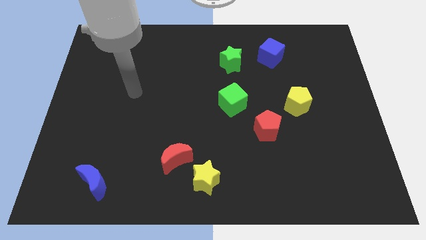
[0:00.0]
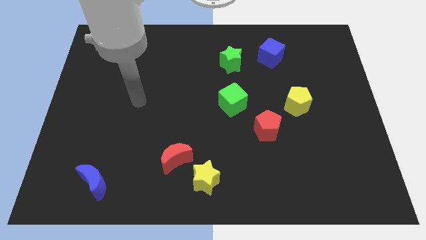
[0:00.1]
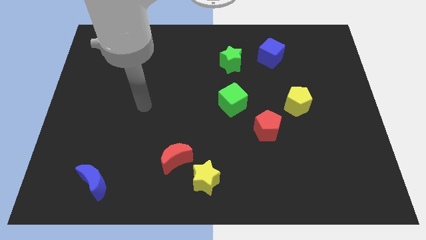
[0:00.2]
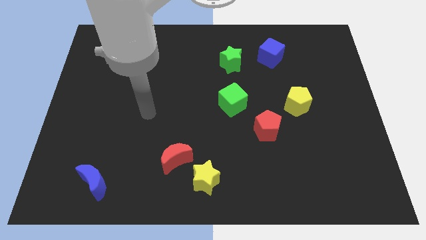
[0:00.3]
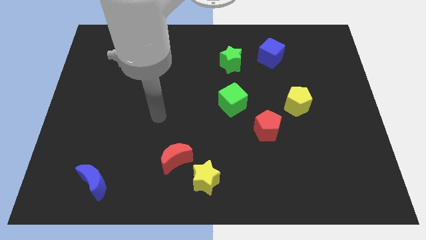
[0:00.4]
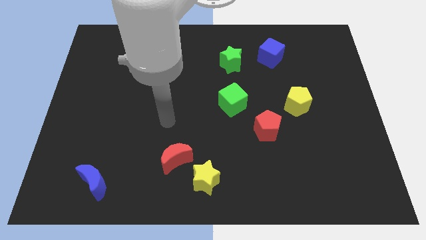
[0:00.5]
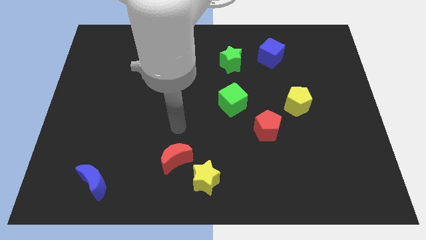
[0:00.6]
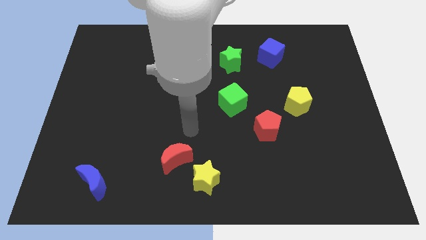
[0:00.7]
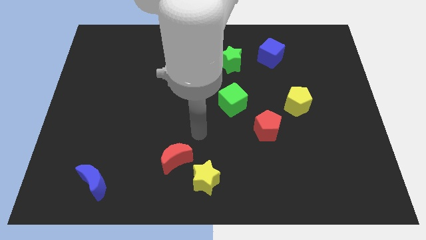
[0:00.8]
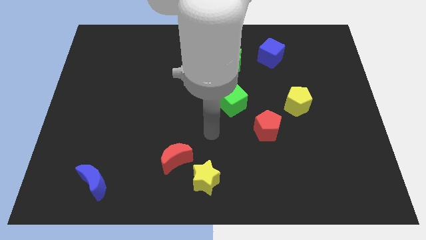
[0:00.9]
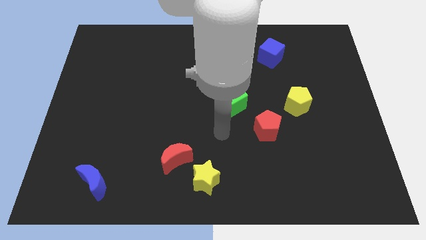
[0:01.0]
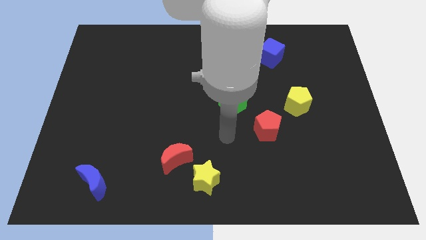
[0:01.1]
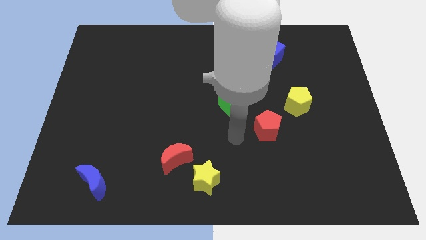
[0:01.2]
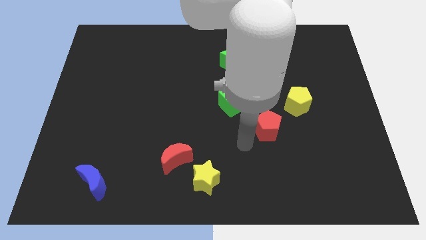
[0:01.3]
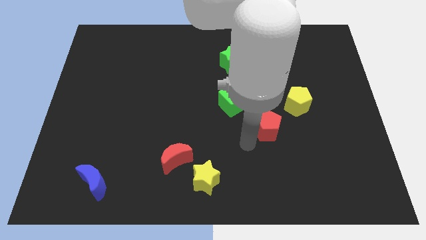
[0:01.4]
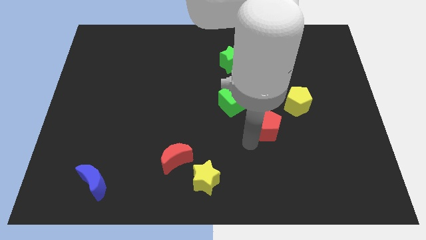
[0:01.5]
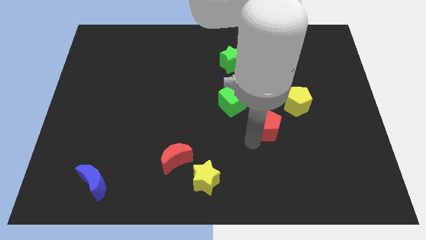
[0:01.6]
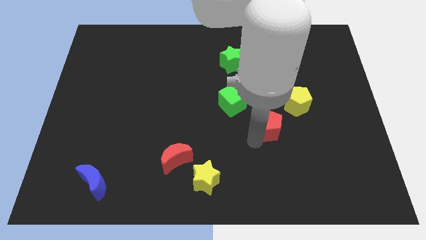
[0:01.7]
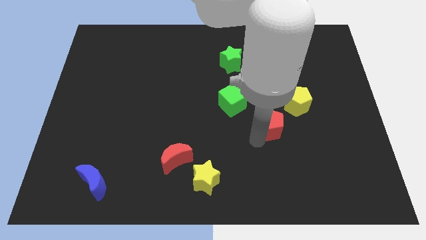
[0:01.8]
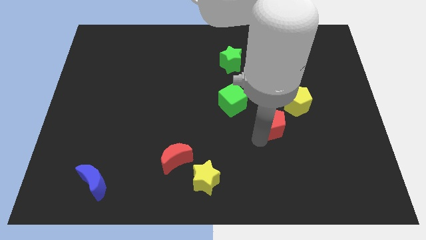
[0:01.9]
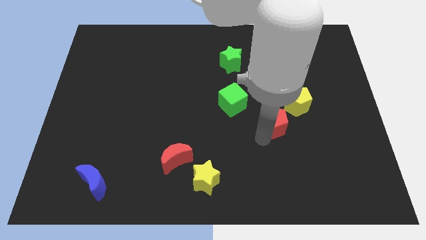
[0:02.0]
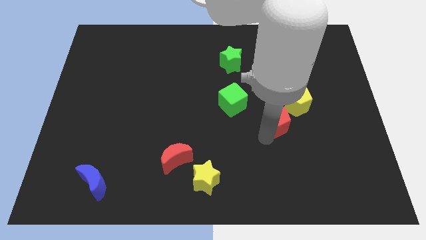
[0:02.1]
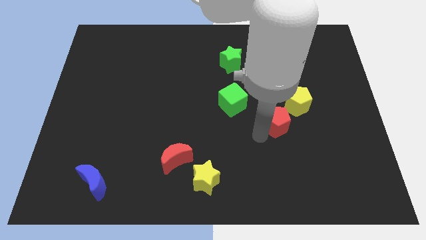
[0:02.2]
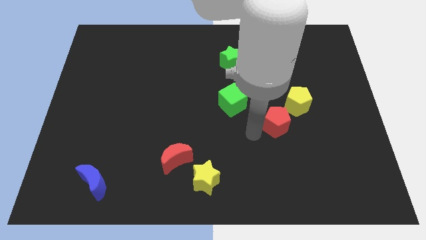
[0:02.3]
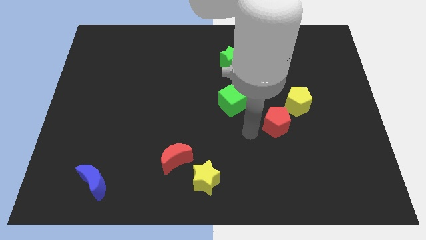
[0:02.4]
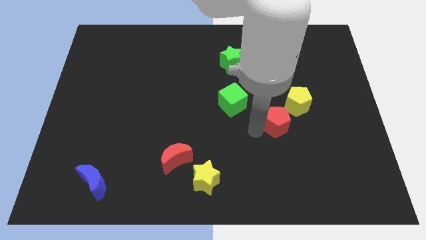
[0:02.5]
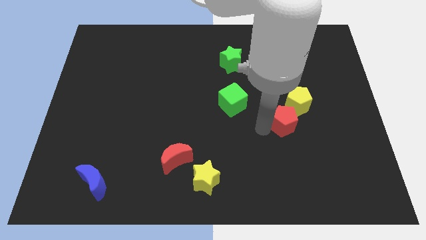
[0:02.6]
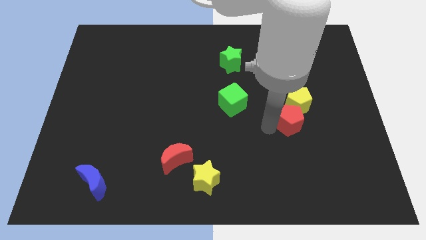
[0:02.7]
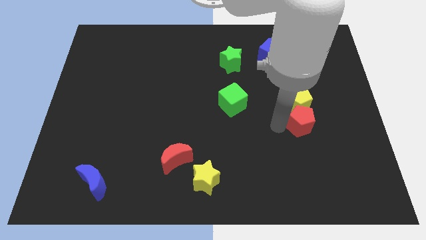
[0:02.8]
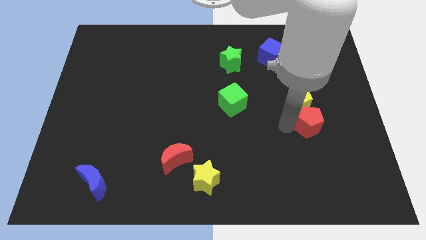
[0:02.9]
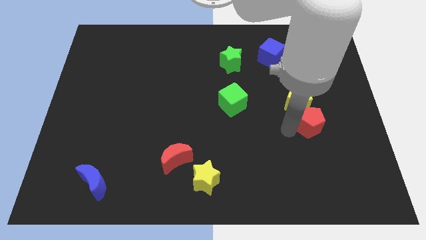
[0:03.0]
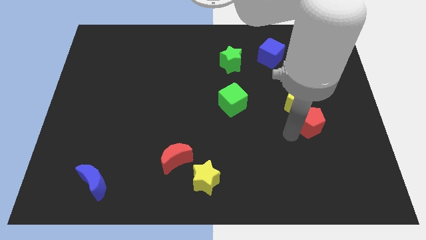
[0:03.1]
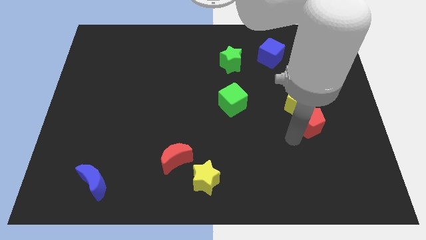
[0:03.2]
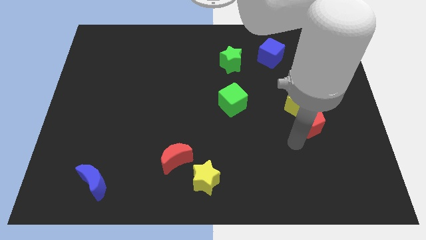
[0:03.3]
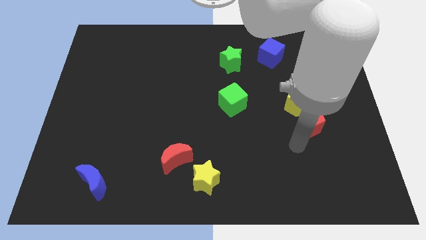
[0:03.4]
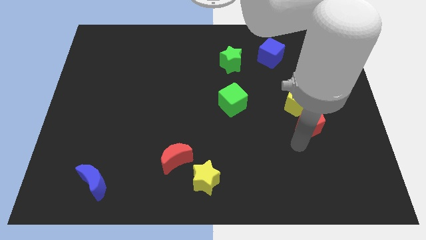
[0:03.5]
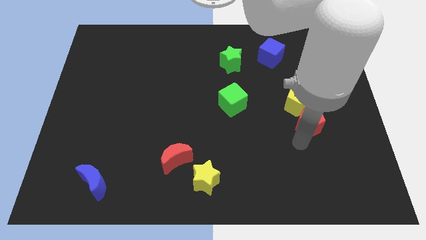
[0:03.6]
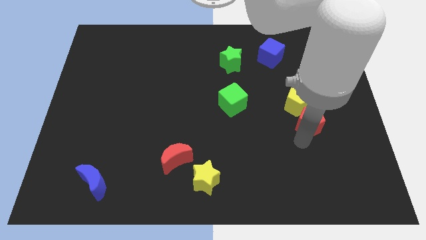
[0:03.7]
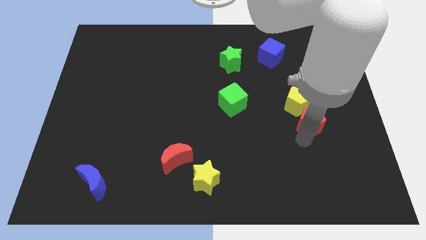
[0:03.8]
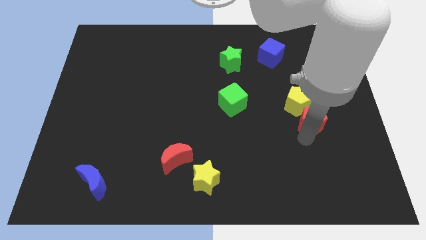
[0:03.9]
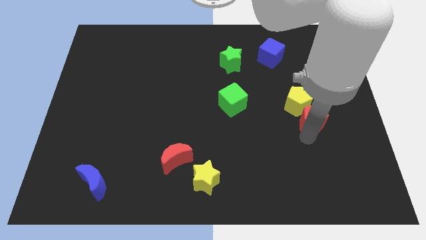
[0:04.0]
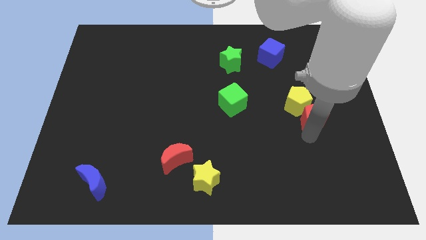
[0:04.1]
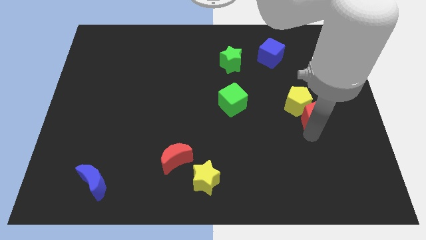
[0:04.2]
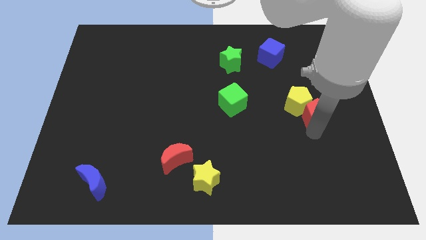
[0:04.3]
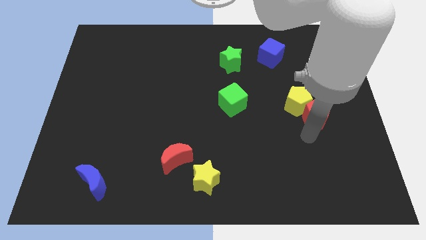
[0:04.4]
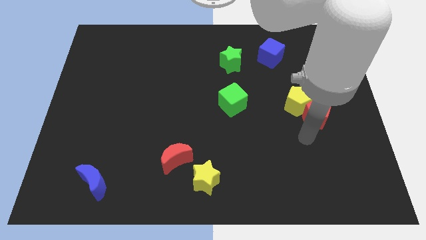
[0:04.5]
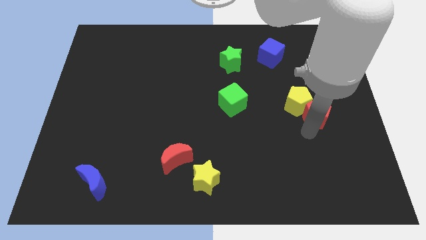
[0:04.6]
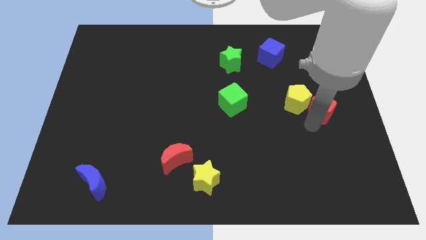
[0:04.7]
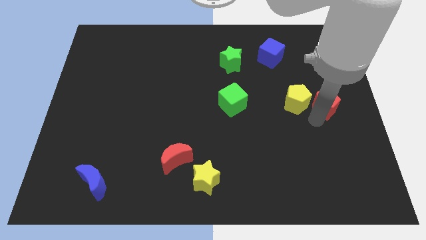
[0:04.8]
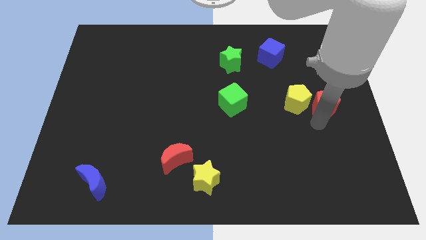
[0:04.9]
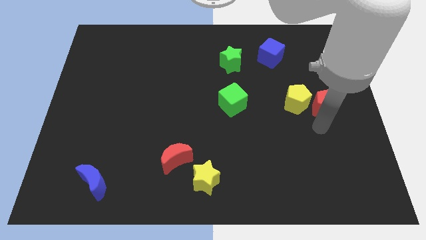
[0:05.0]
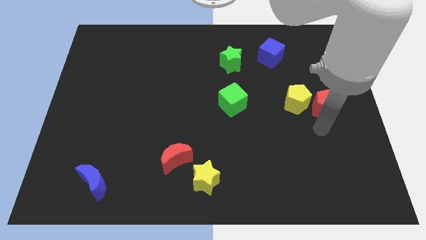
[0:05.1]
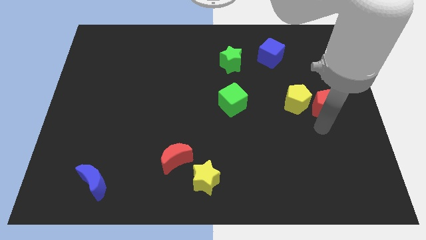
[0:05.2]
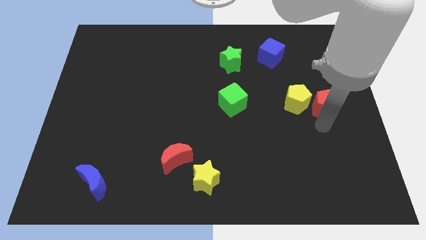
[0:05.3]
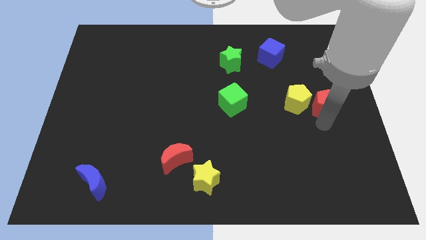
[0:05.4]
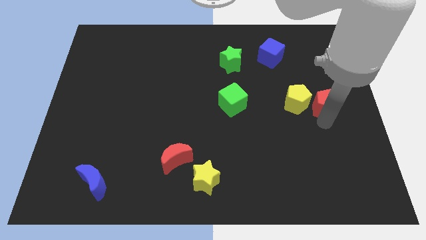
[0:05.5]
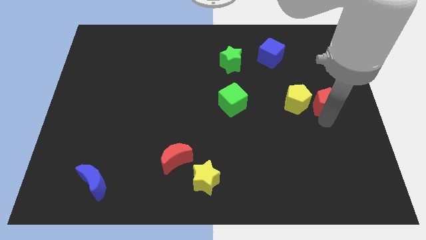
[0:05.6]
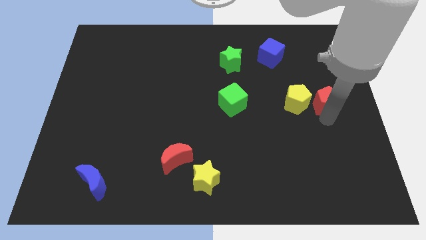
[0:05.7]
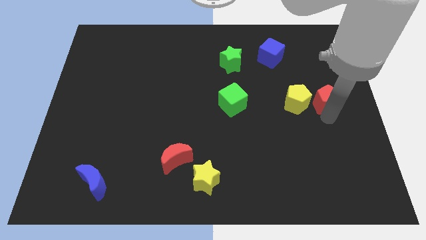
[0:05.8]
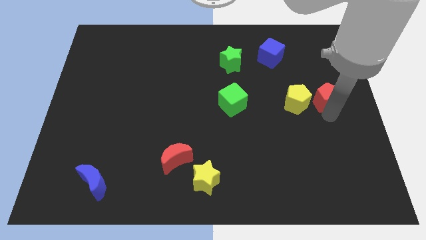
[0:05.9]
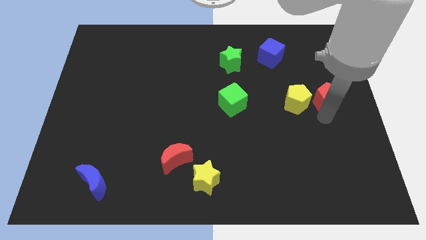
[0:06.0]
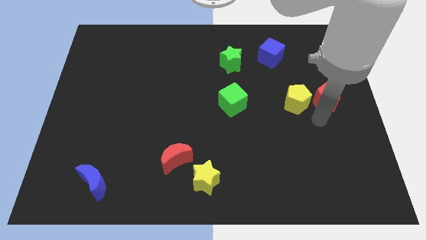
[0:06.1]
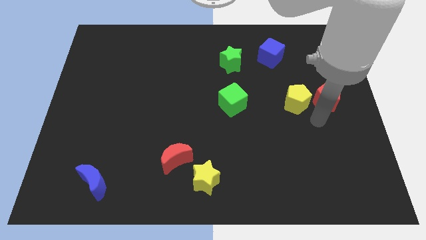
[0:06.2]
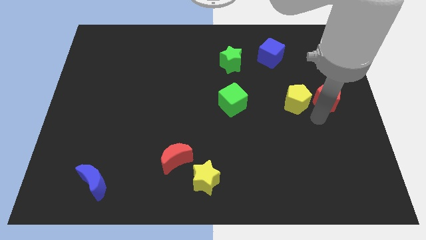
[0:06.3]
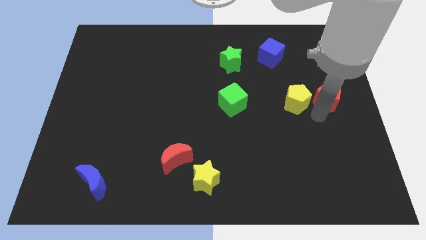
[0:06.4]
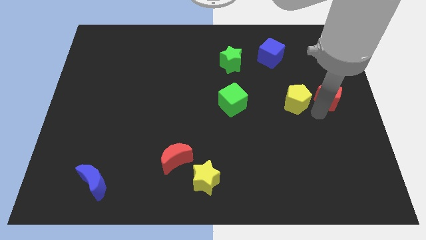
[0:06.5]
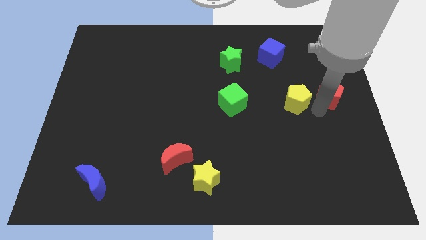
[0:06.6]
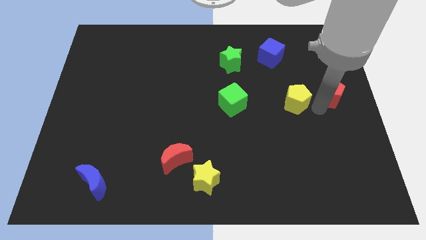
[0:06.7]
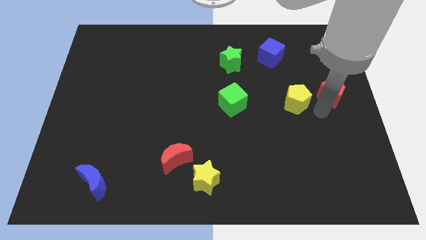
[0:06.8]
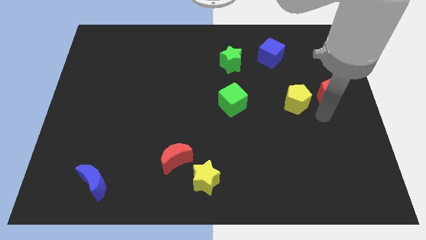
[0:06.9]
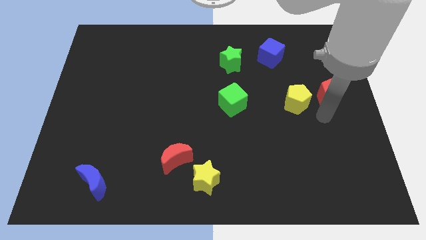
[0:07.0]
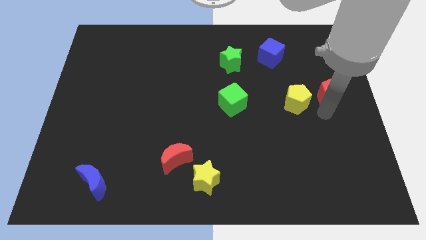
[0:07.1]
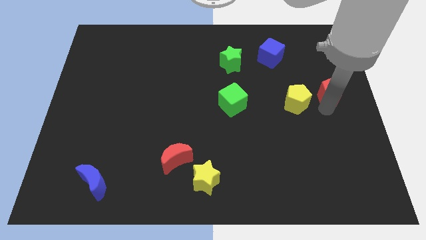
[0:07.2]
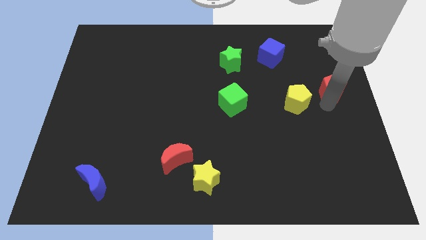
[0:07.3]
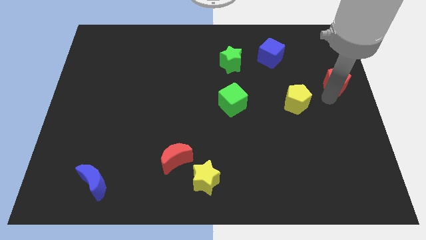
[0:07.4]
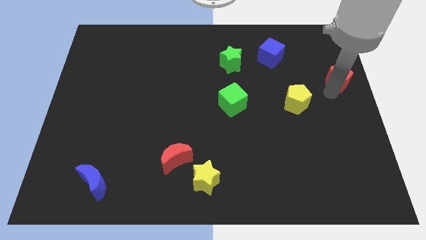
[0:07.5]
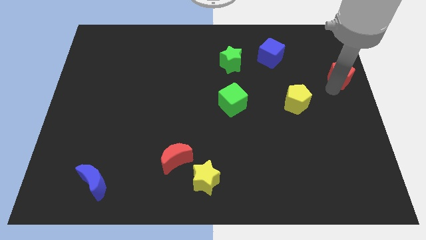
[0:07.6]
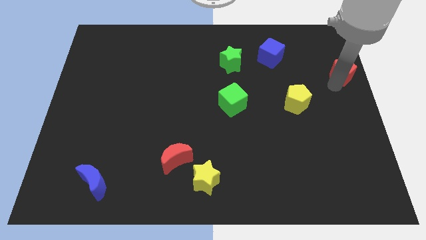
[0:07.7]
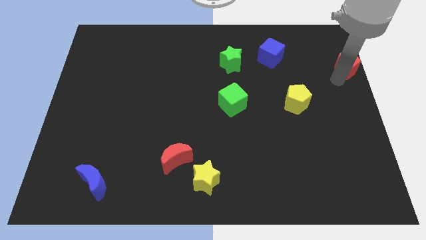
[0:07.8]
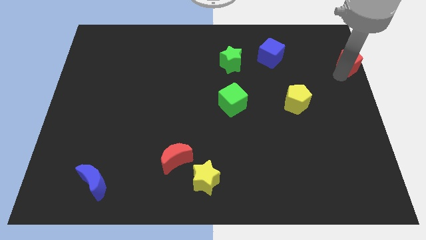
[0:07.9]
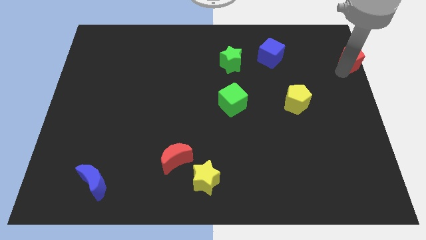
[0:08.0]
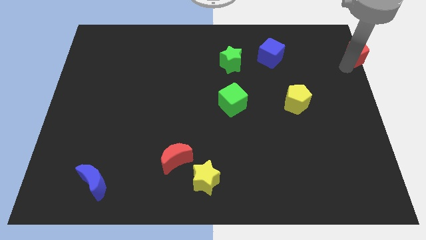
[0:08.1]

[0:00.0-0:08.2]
push the red pentagon to the top right
